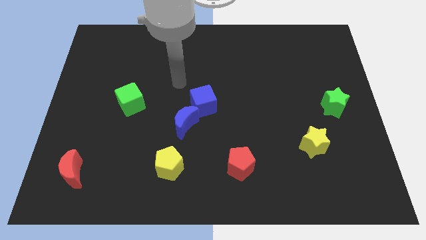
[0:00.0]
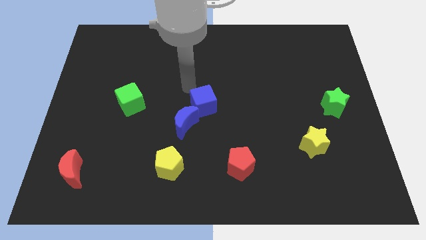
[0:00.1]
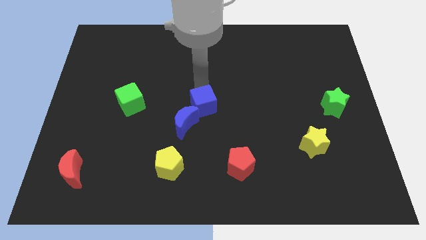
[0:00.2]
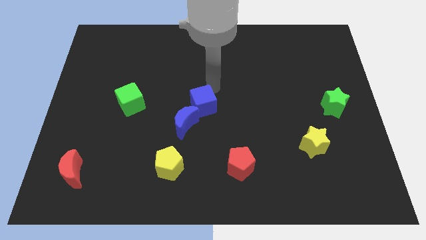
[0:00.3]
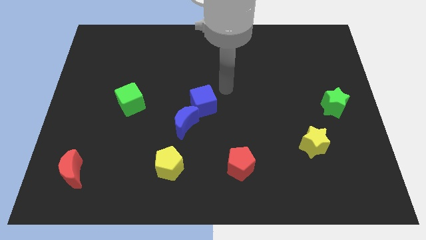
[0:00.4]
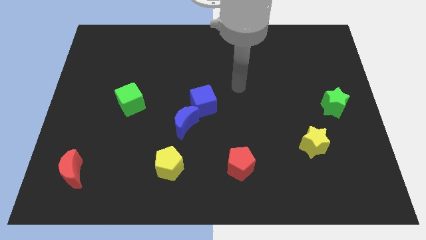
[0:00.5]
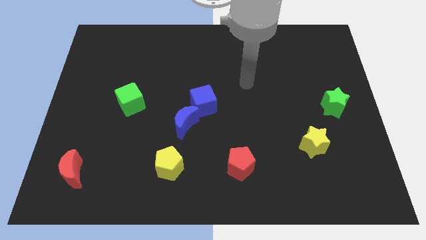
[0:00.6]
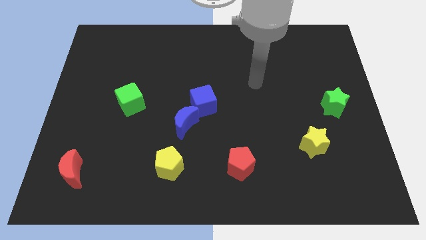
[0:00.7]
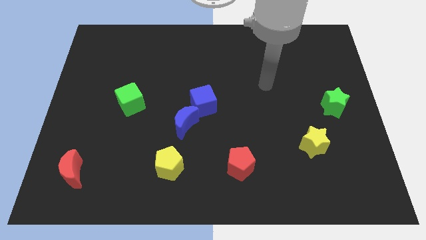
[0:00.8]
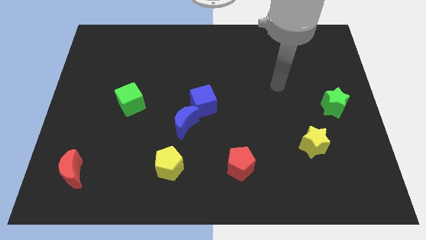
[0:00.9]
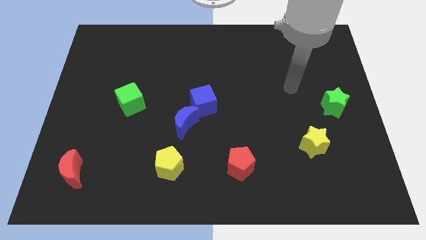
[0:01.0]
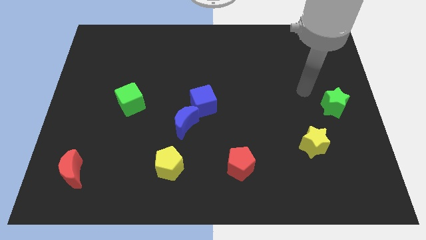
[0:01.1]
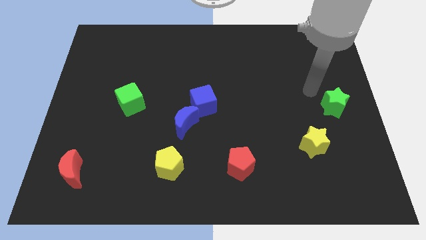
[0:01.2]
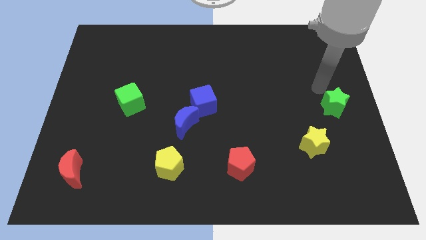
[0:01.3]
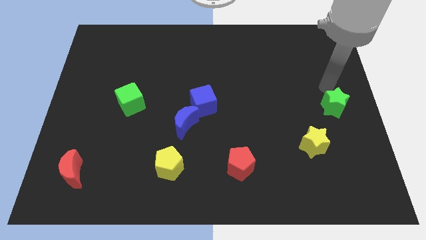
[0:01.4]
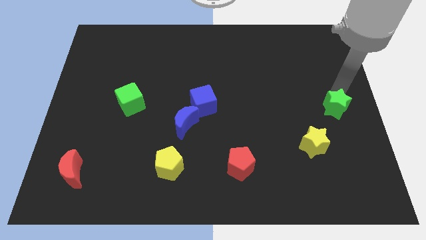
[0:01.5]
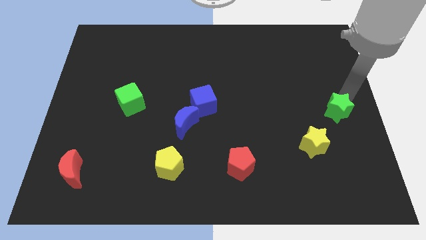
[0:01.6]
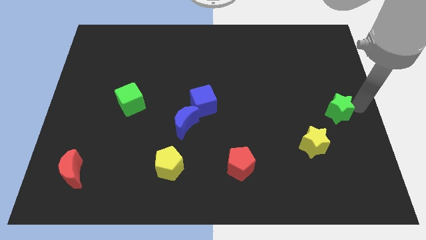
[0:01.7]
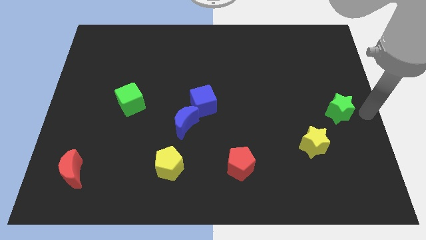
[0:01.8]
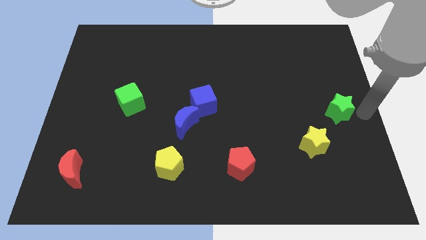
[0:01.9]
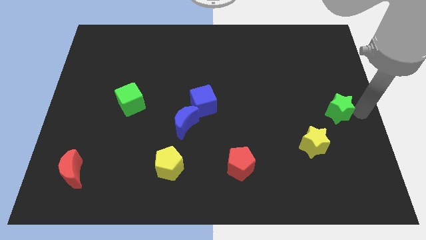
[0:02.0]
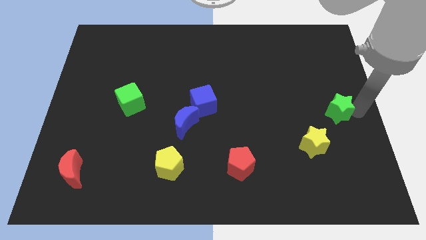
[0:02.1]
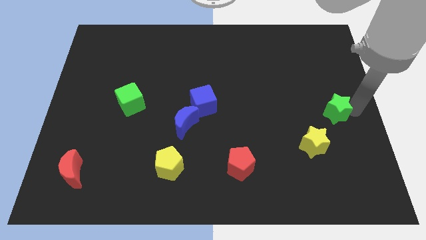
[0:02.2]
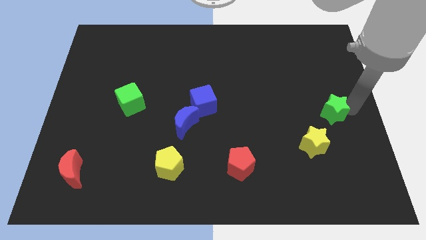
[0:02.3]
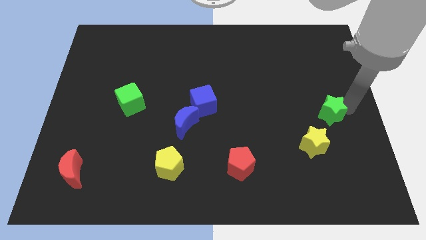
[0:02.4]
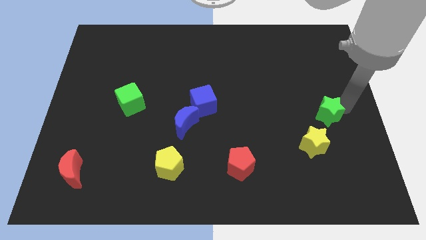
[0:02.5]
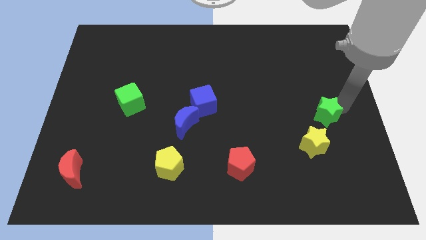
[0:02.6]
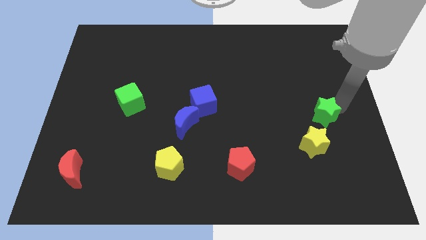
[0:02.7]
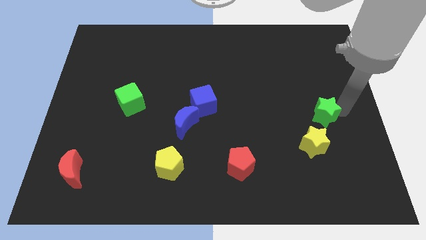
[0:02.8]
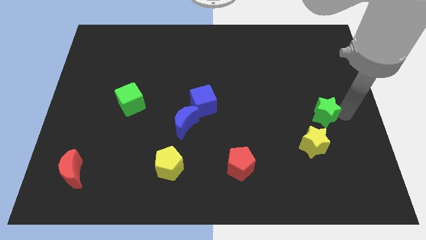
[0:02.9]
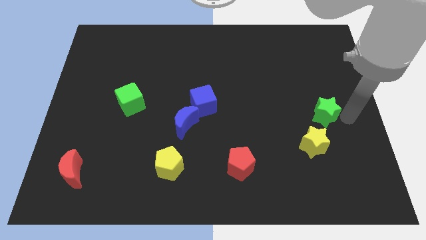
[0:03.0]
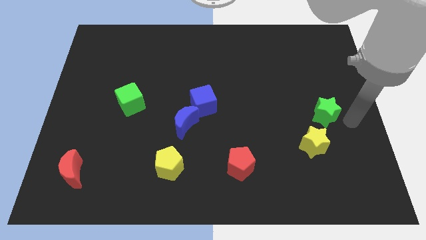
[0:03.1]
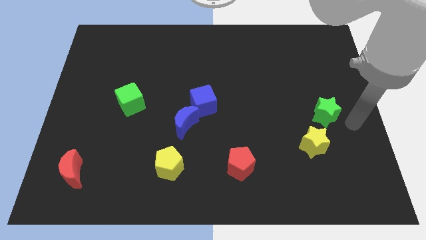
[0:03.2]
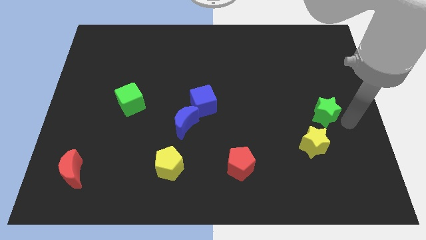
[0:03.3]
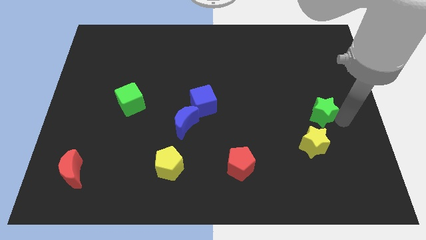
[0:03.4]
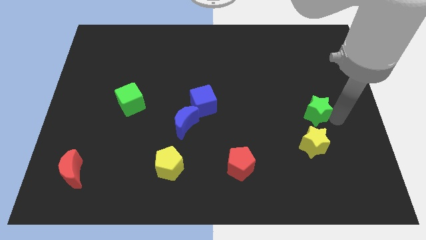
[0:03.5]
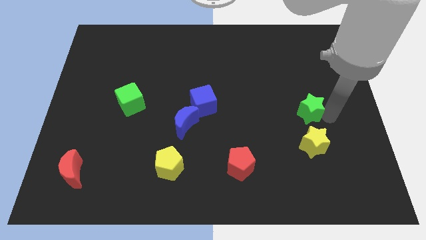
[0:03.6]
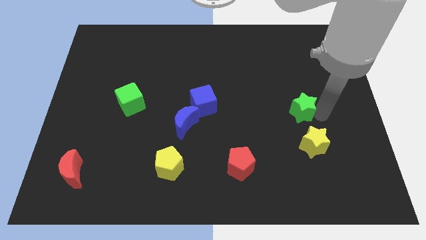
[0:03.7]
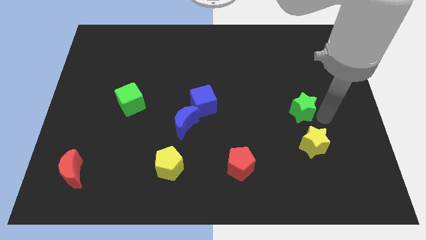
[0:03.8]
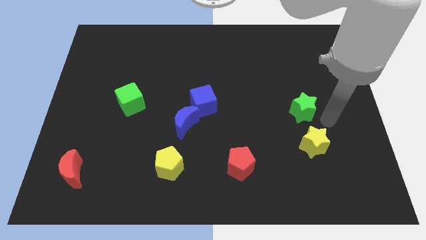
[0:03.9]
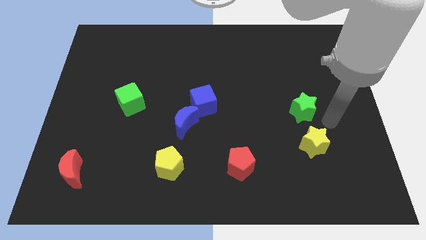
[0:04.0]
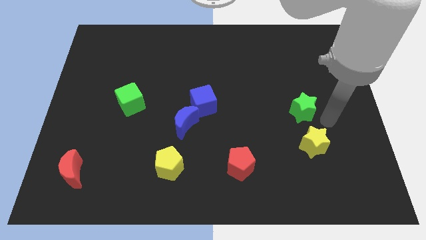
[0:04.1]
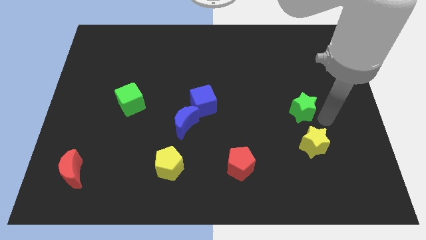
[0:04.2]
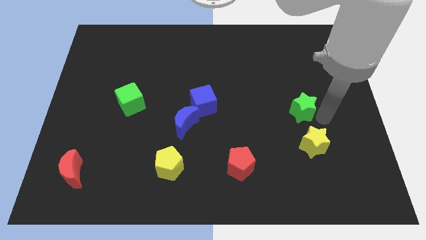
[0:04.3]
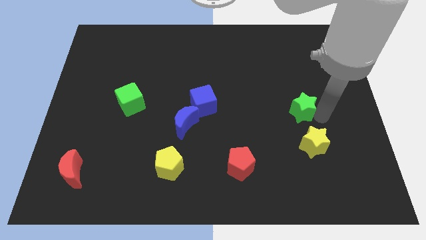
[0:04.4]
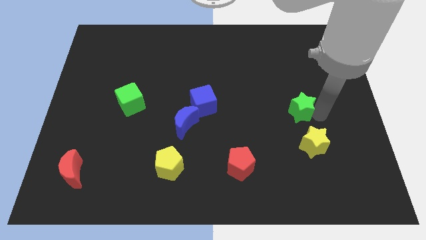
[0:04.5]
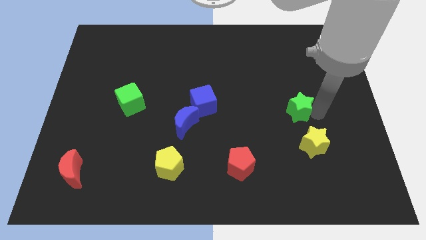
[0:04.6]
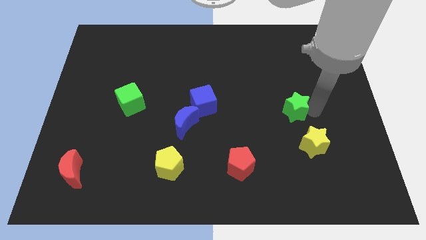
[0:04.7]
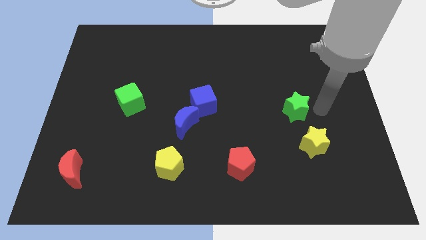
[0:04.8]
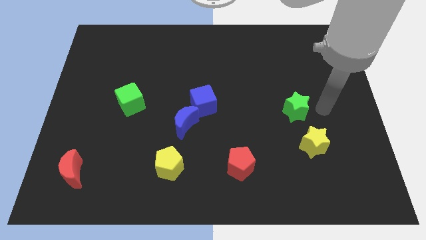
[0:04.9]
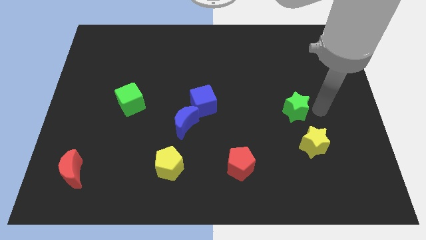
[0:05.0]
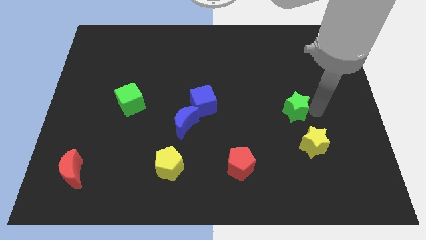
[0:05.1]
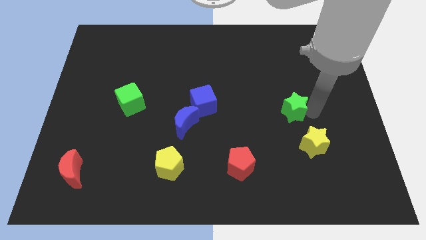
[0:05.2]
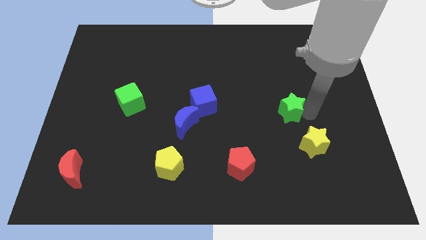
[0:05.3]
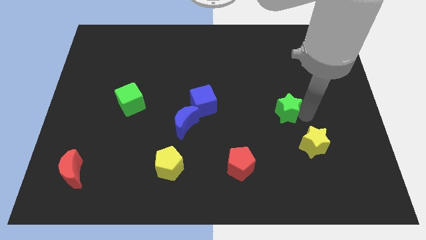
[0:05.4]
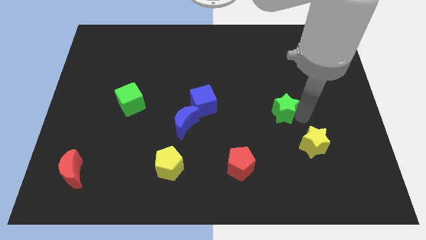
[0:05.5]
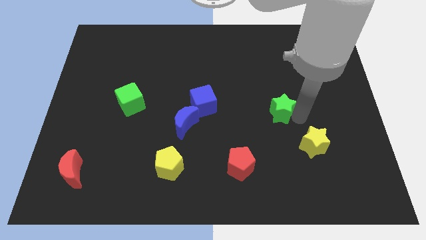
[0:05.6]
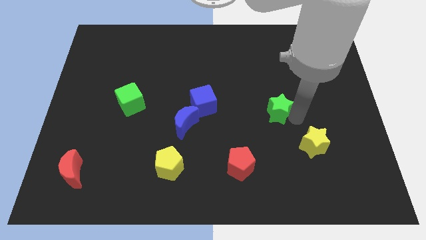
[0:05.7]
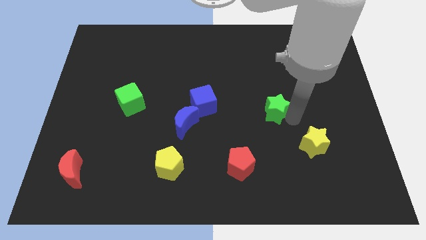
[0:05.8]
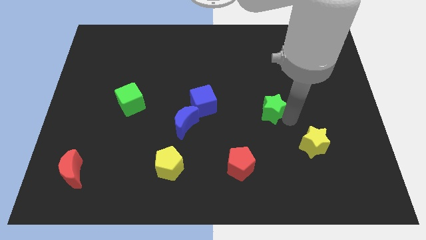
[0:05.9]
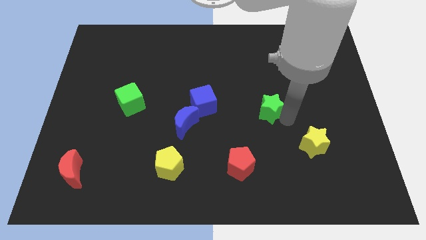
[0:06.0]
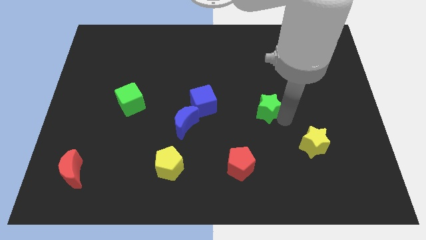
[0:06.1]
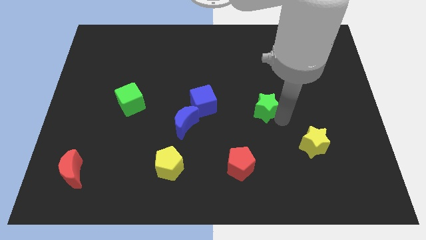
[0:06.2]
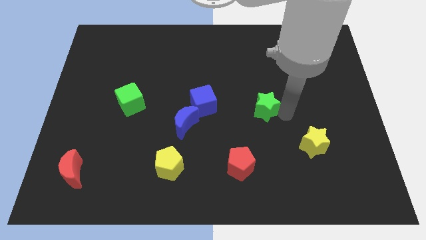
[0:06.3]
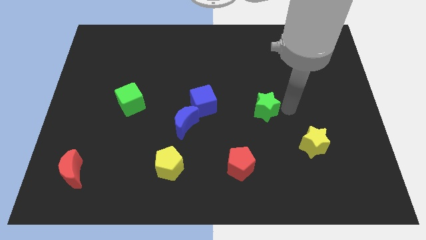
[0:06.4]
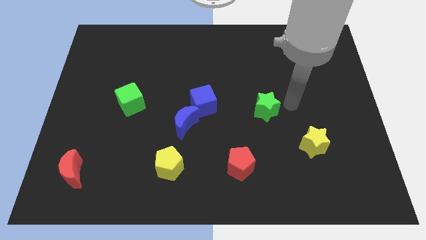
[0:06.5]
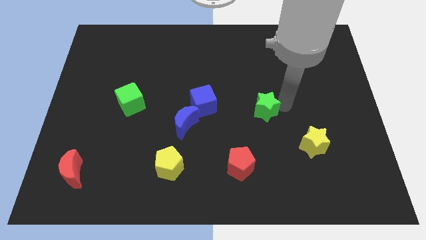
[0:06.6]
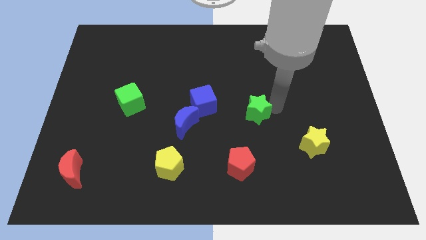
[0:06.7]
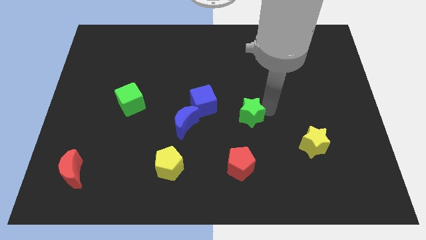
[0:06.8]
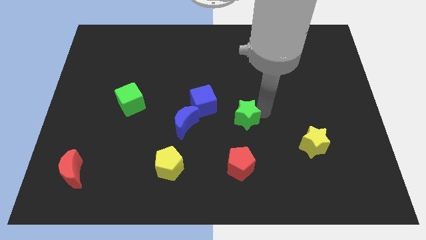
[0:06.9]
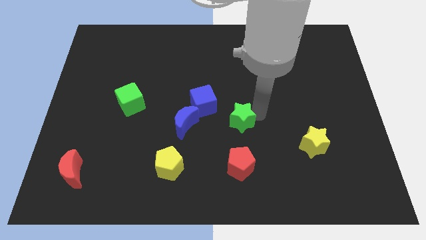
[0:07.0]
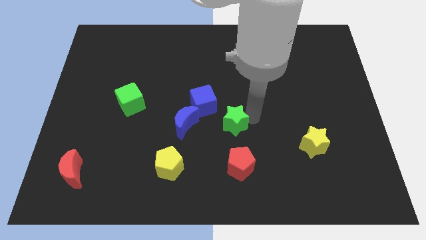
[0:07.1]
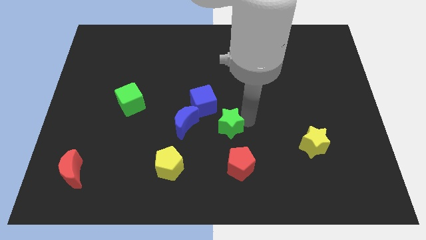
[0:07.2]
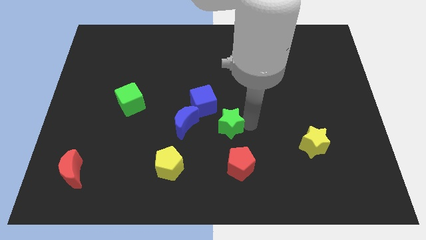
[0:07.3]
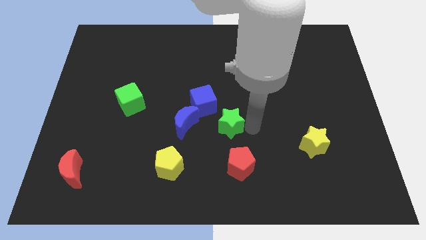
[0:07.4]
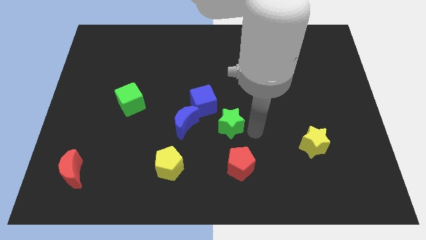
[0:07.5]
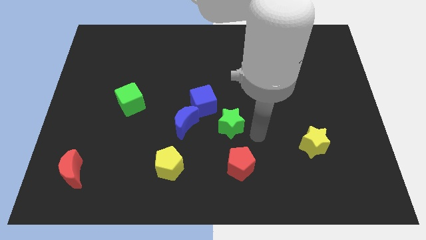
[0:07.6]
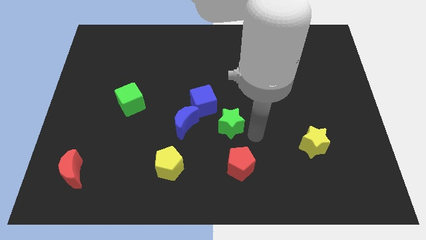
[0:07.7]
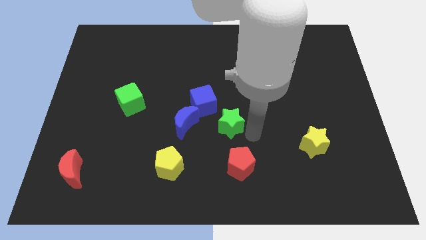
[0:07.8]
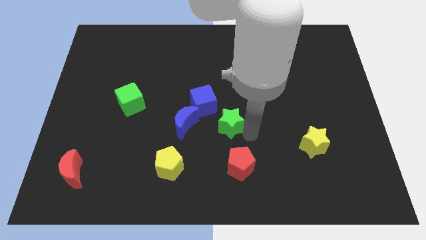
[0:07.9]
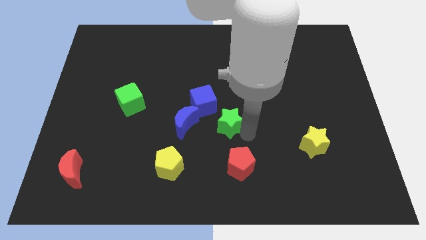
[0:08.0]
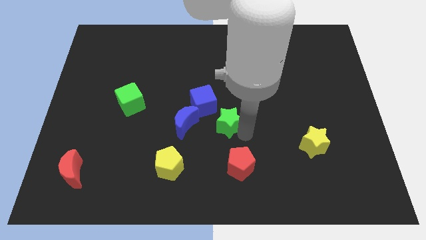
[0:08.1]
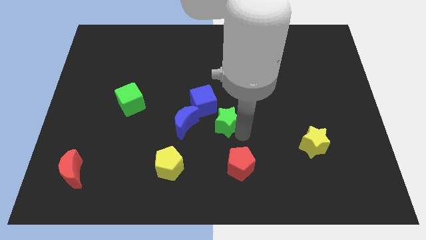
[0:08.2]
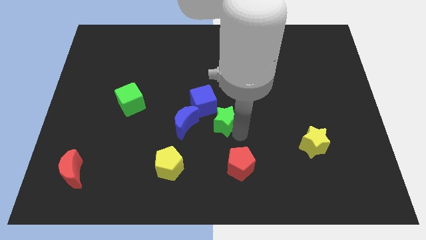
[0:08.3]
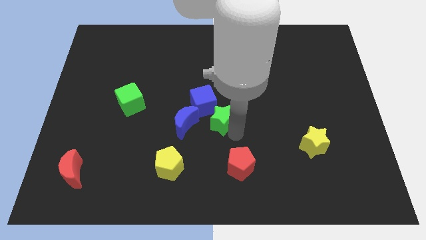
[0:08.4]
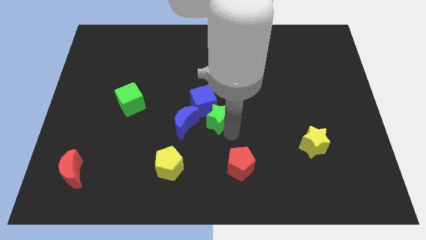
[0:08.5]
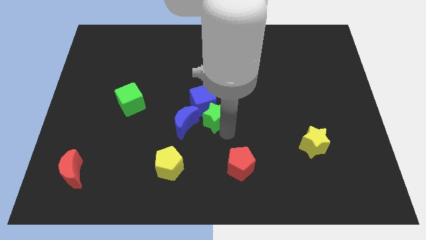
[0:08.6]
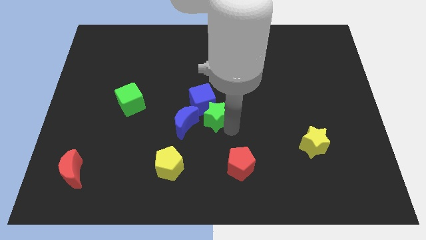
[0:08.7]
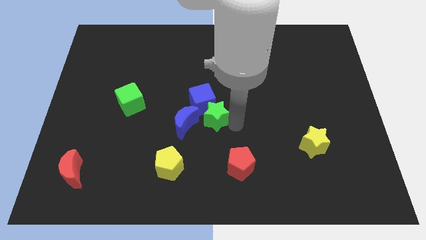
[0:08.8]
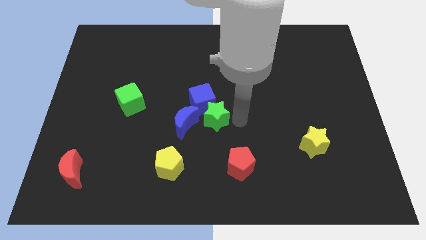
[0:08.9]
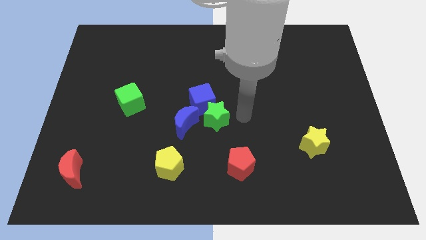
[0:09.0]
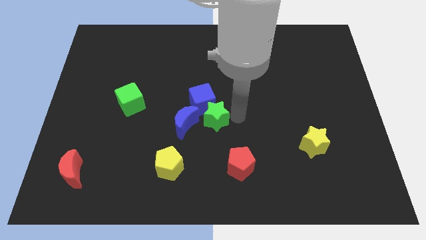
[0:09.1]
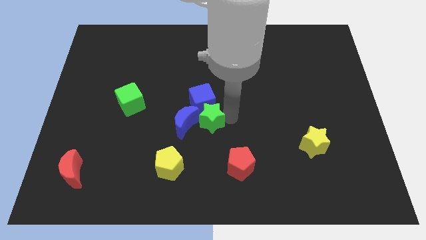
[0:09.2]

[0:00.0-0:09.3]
move the green star to the blue moon
